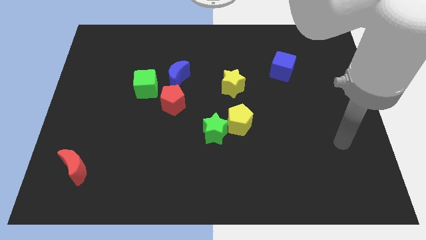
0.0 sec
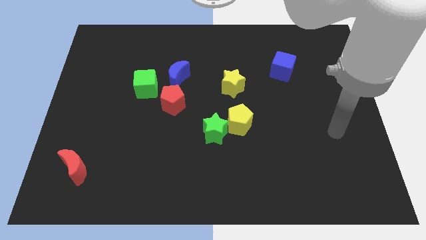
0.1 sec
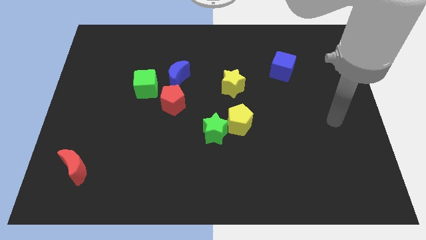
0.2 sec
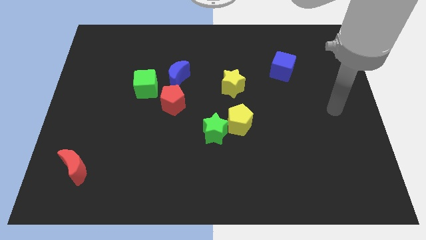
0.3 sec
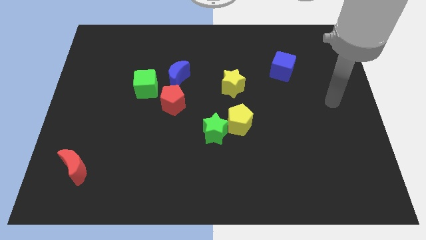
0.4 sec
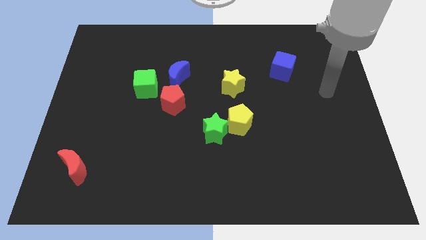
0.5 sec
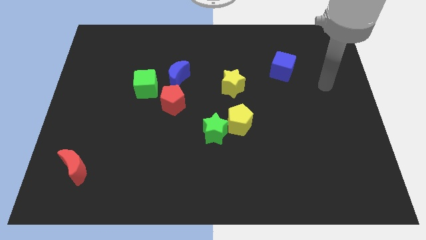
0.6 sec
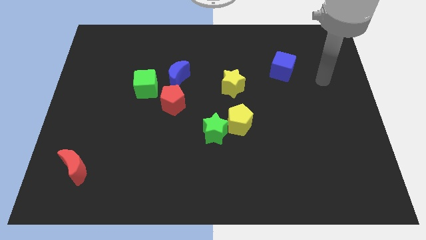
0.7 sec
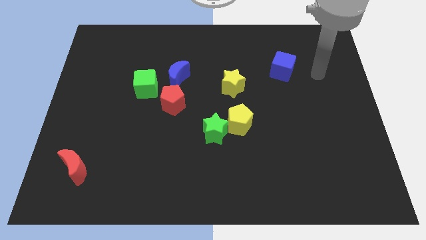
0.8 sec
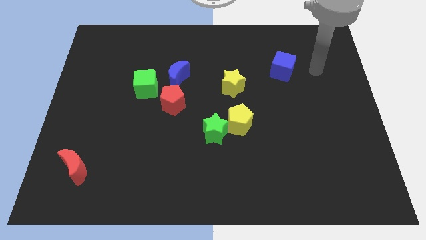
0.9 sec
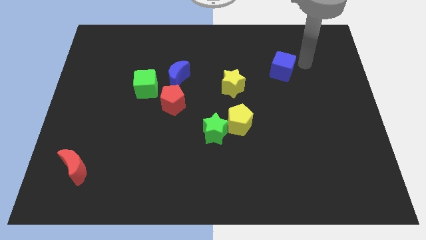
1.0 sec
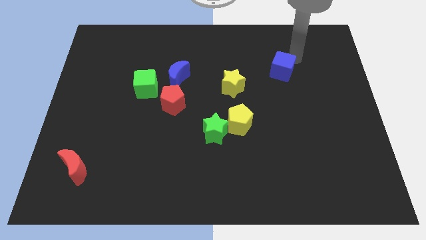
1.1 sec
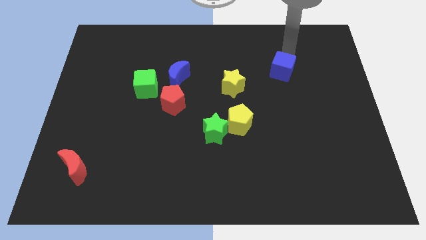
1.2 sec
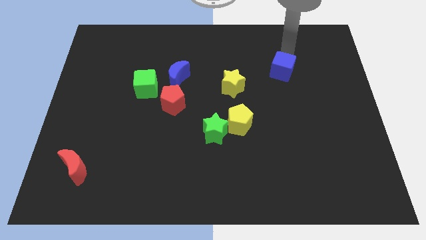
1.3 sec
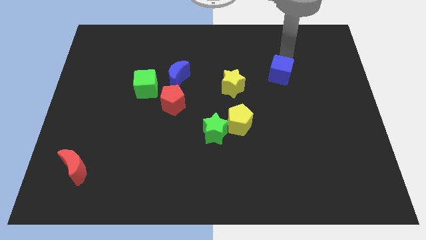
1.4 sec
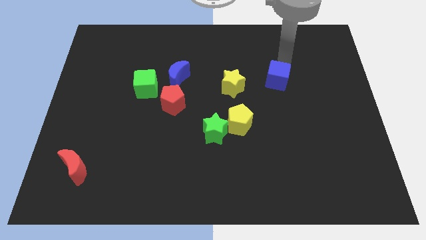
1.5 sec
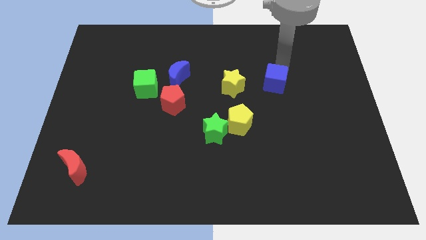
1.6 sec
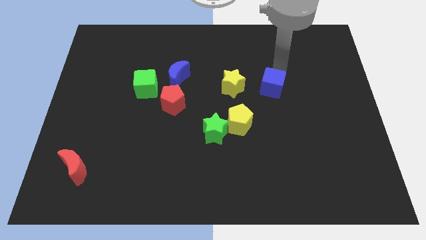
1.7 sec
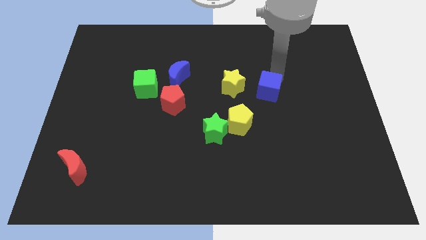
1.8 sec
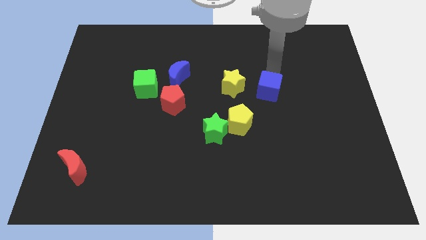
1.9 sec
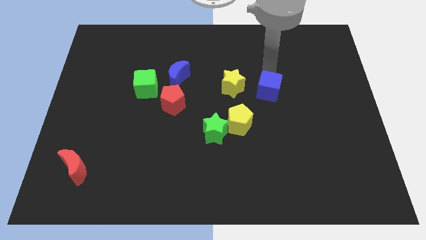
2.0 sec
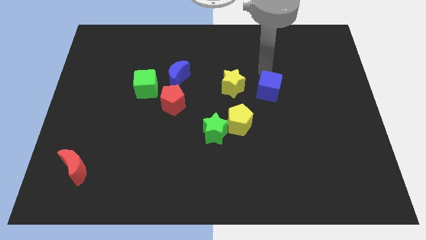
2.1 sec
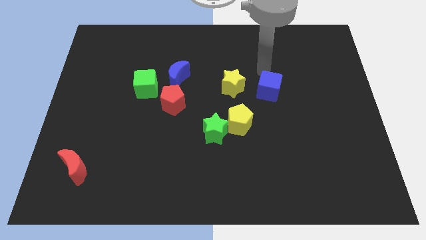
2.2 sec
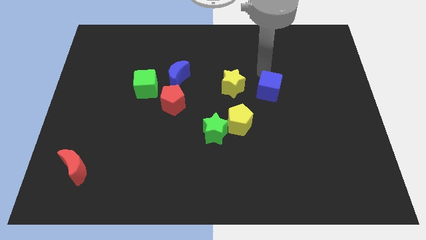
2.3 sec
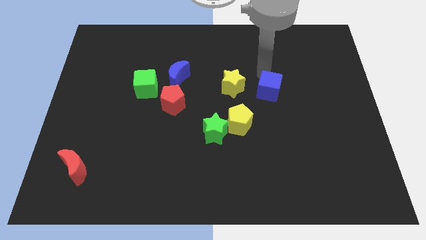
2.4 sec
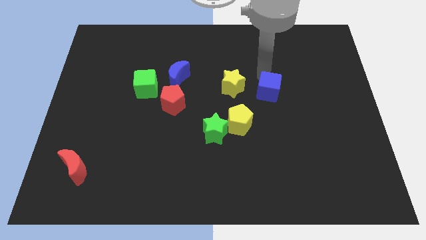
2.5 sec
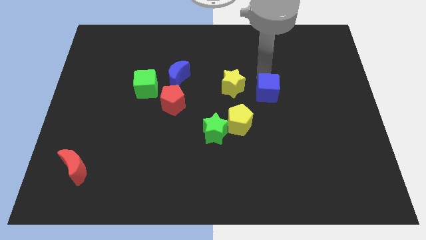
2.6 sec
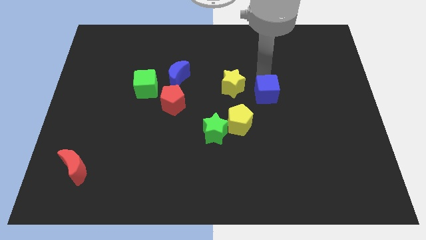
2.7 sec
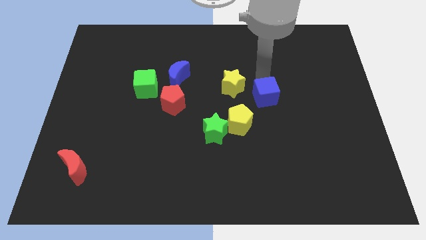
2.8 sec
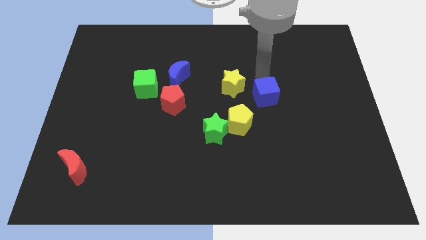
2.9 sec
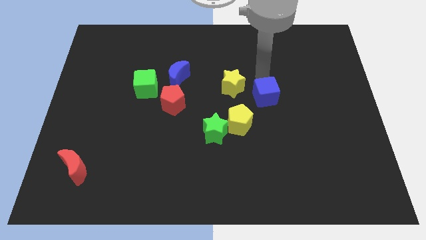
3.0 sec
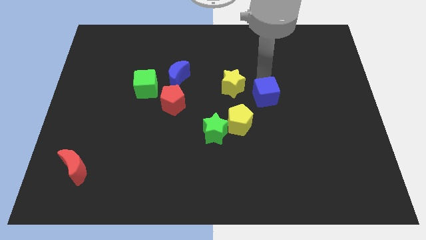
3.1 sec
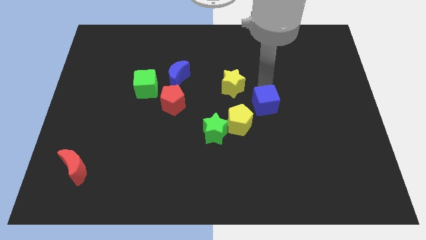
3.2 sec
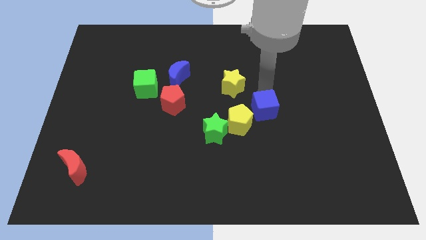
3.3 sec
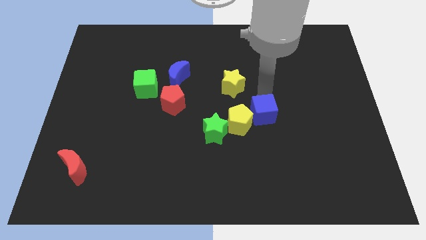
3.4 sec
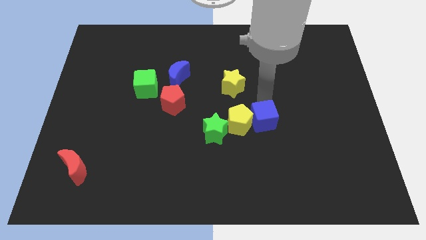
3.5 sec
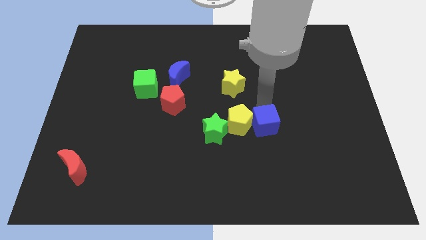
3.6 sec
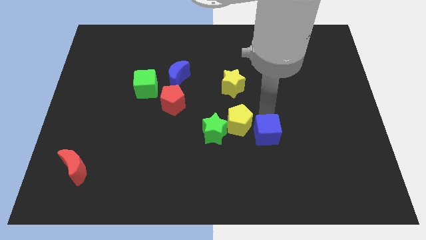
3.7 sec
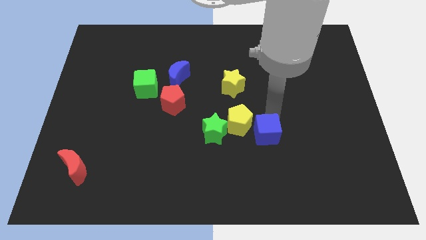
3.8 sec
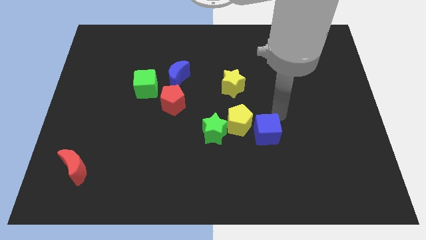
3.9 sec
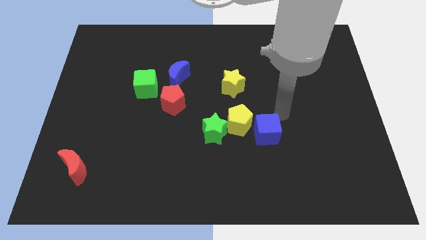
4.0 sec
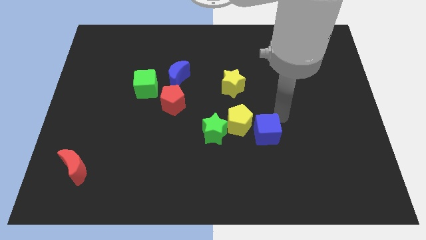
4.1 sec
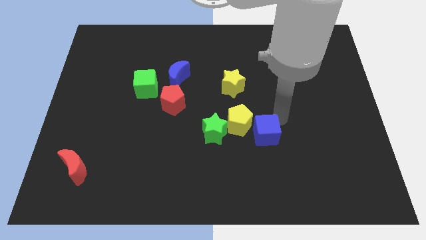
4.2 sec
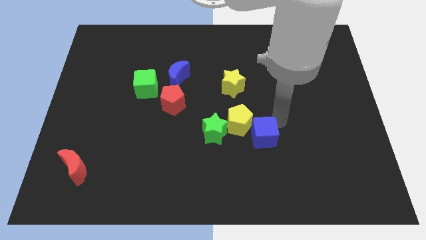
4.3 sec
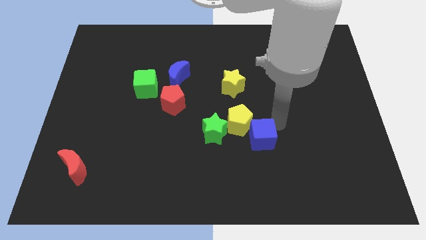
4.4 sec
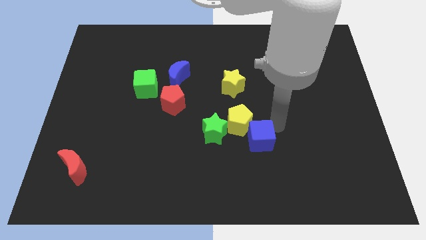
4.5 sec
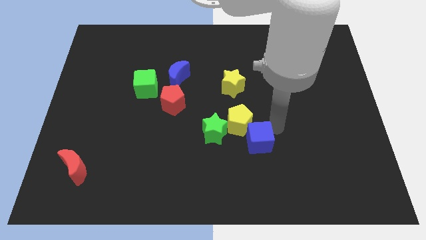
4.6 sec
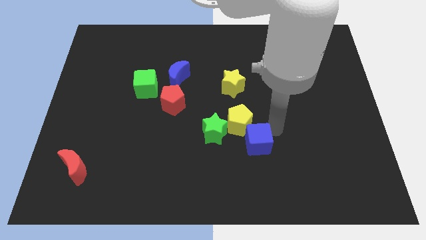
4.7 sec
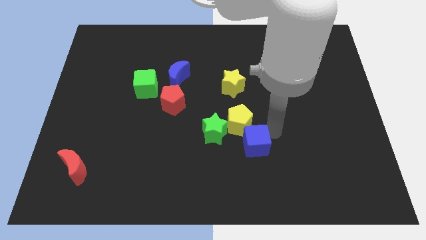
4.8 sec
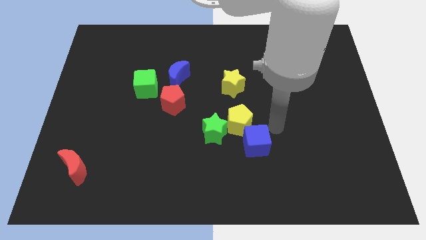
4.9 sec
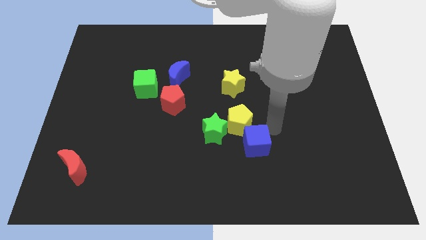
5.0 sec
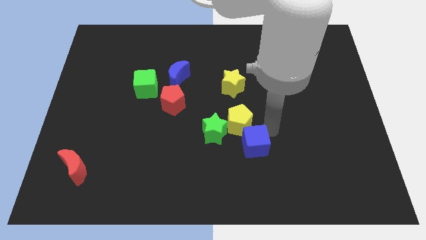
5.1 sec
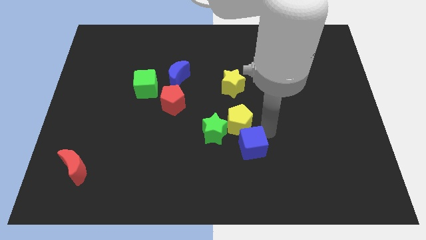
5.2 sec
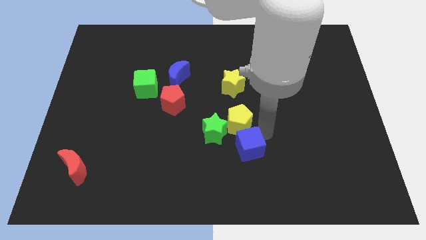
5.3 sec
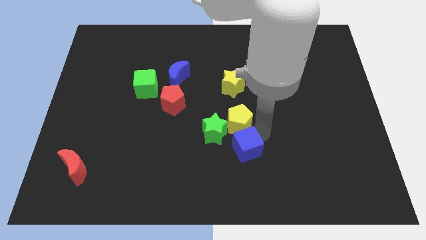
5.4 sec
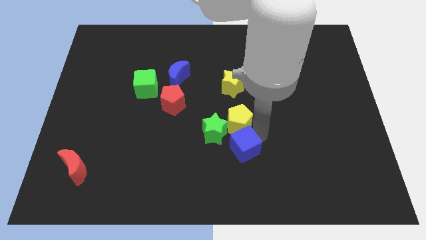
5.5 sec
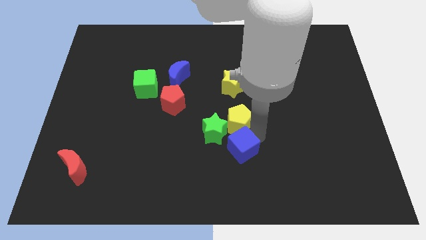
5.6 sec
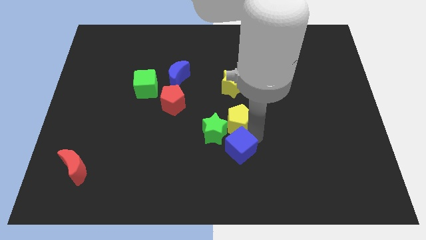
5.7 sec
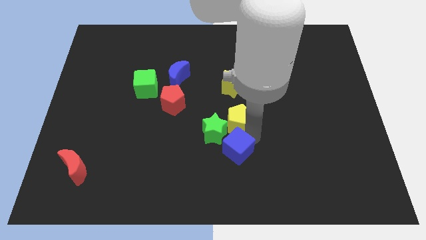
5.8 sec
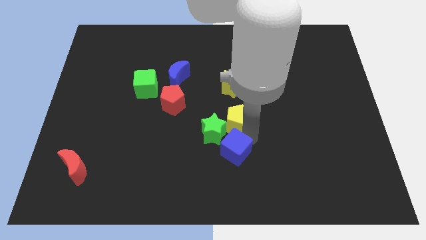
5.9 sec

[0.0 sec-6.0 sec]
slide the blue cube to the bottom of the green star

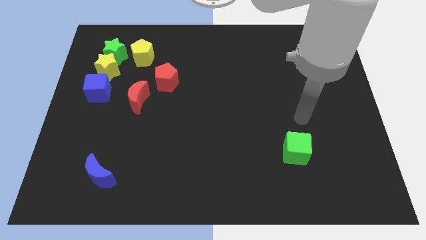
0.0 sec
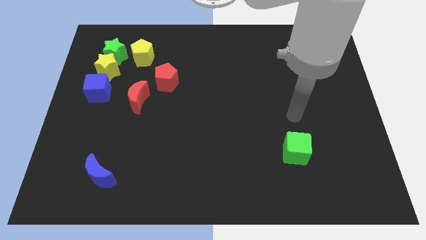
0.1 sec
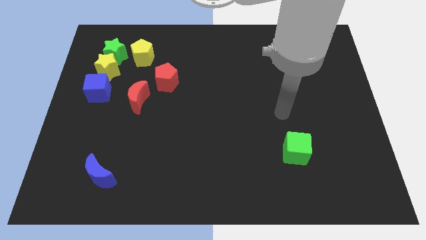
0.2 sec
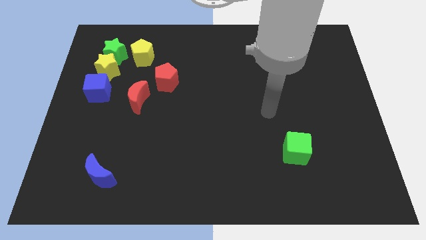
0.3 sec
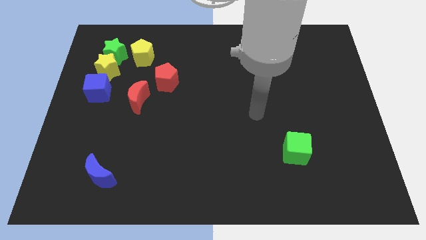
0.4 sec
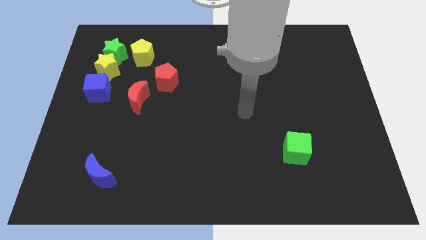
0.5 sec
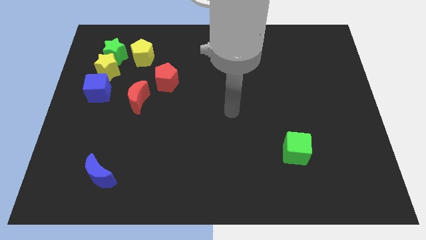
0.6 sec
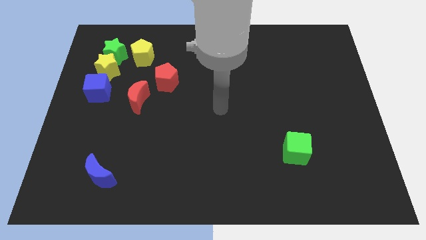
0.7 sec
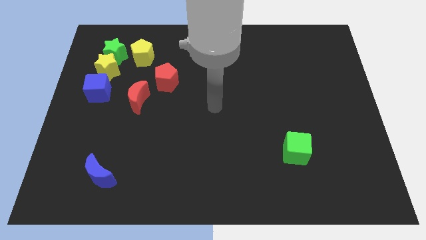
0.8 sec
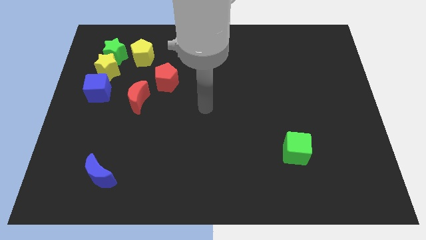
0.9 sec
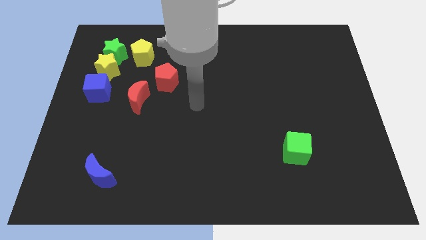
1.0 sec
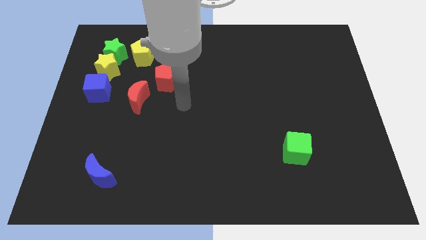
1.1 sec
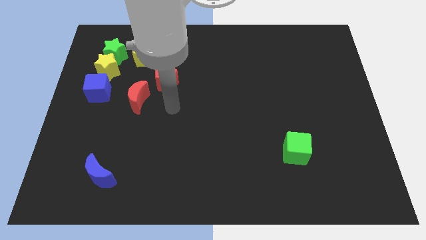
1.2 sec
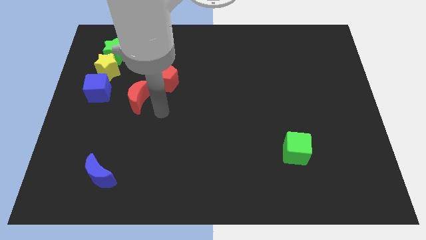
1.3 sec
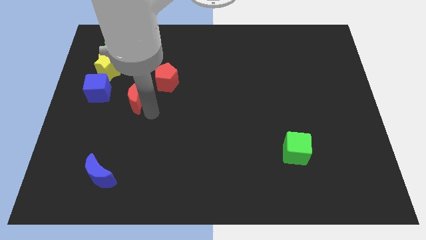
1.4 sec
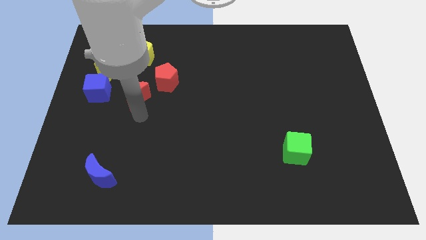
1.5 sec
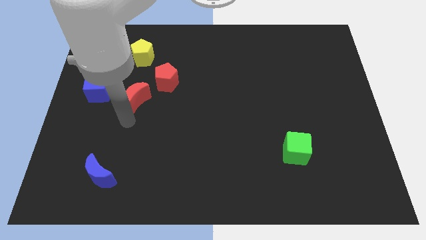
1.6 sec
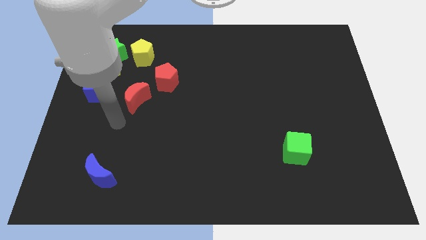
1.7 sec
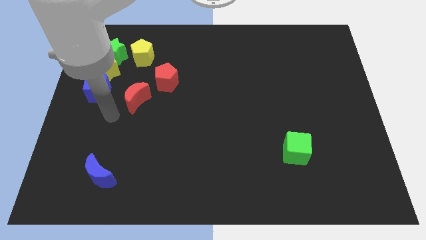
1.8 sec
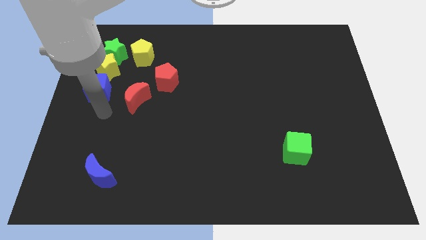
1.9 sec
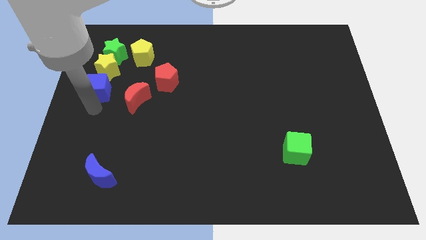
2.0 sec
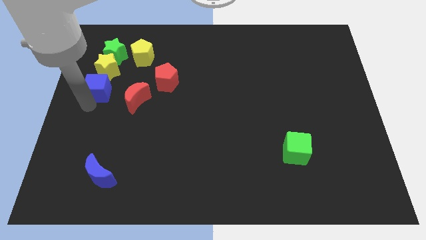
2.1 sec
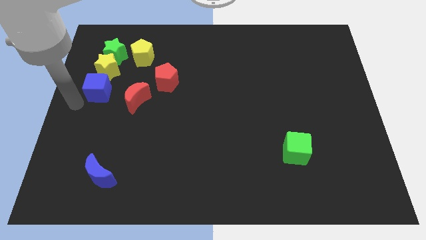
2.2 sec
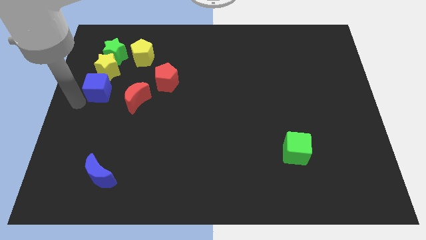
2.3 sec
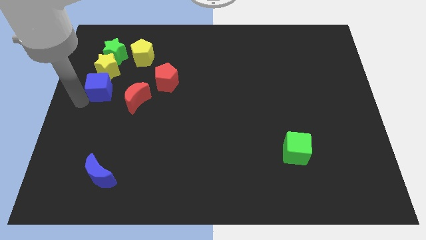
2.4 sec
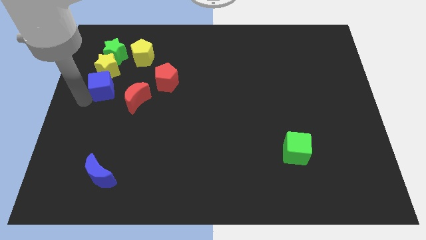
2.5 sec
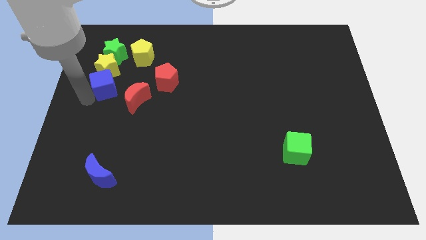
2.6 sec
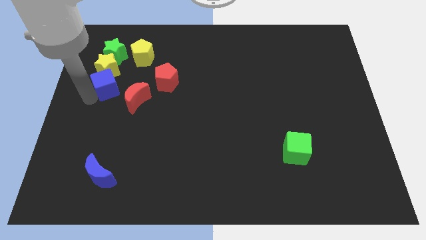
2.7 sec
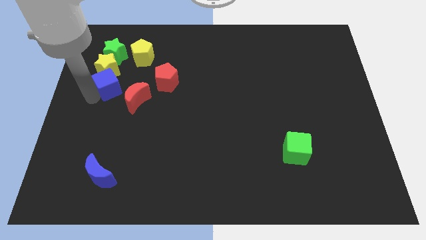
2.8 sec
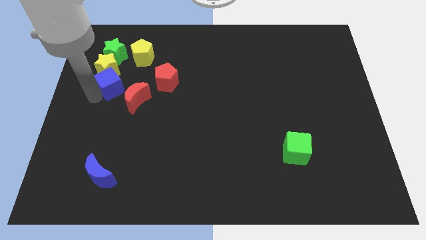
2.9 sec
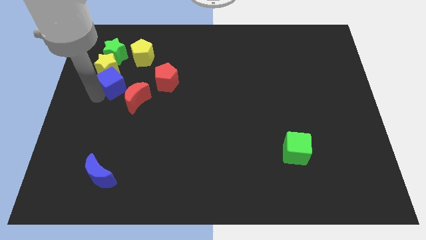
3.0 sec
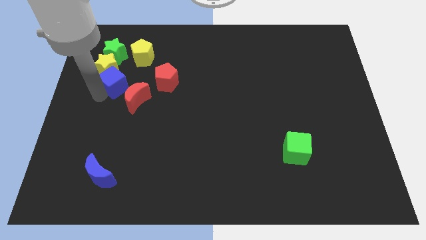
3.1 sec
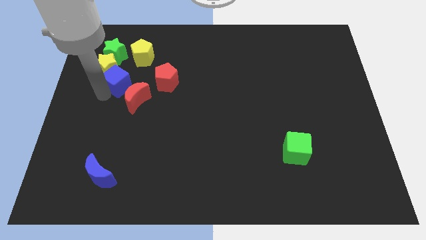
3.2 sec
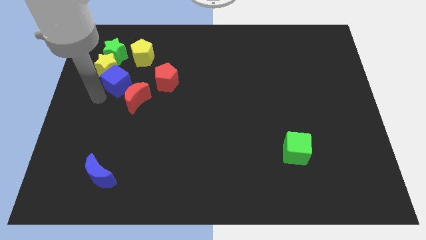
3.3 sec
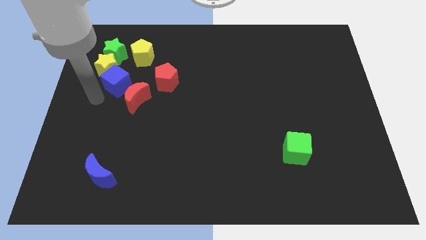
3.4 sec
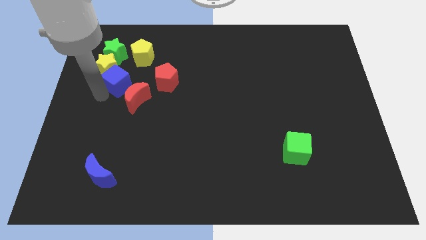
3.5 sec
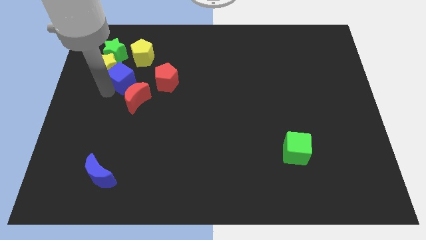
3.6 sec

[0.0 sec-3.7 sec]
put the blue cube to the top of the red moon
